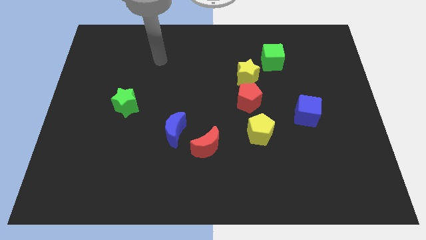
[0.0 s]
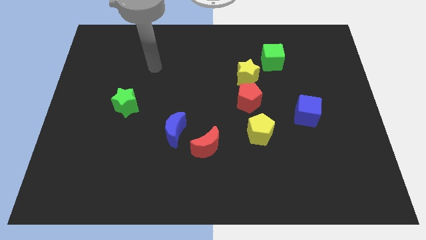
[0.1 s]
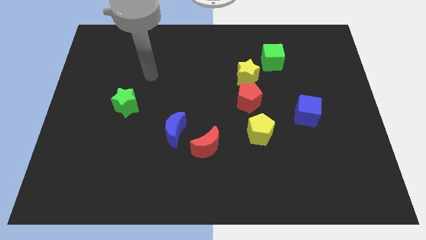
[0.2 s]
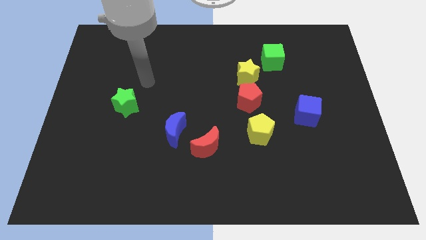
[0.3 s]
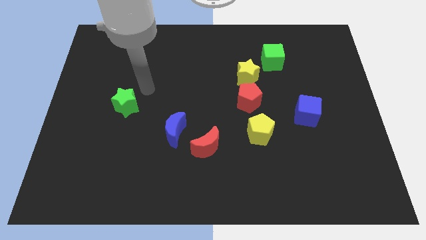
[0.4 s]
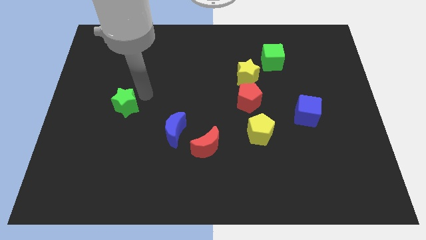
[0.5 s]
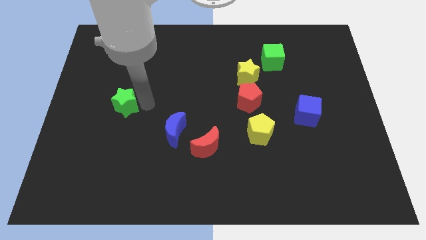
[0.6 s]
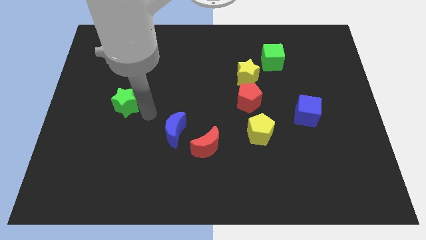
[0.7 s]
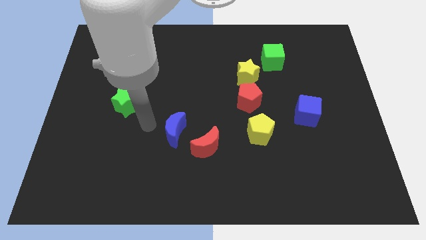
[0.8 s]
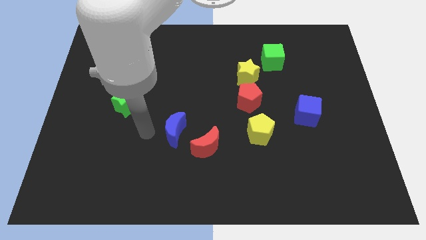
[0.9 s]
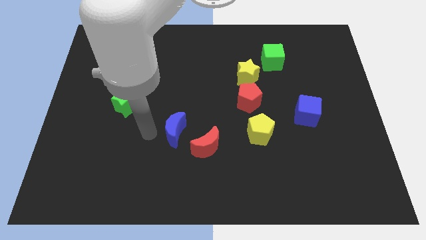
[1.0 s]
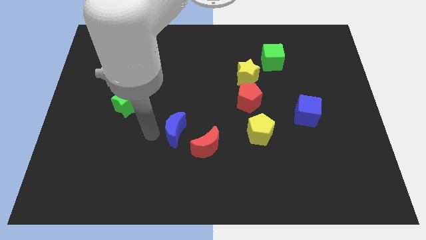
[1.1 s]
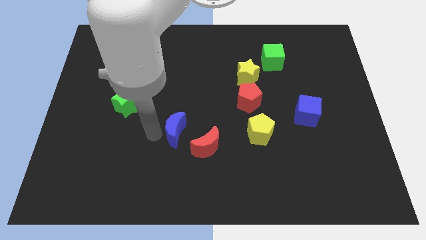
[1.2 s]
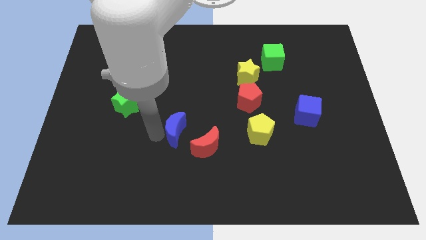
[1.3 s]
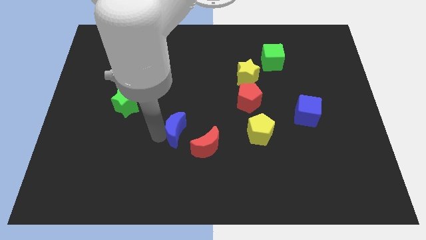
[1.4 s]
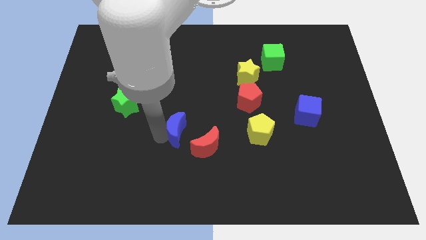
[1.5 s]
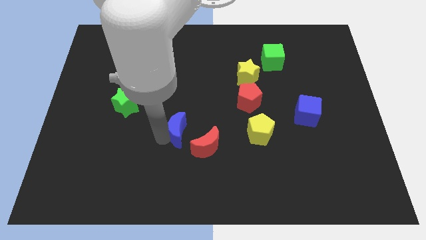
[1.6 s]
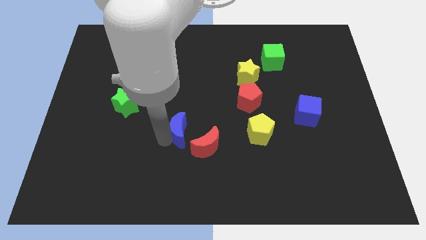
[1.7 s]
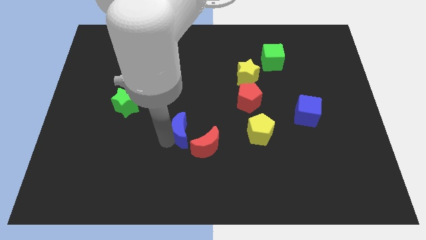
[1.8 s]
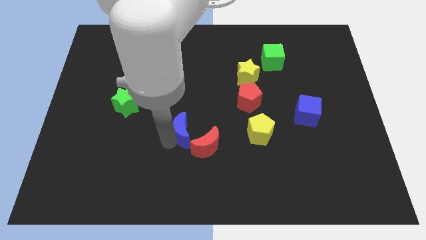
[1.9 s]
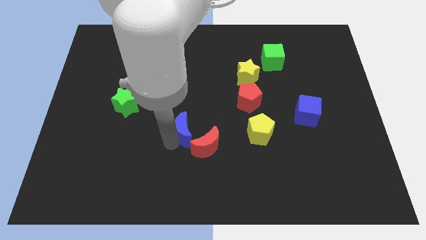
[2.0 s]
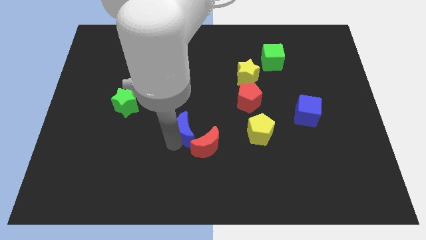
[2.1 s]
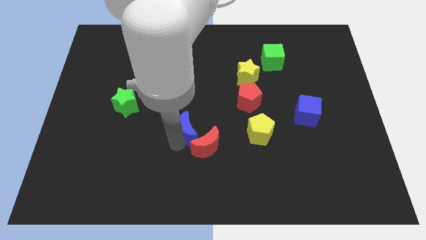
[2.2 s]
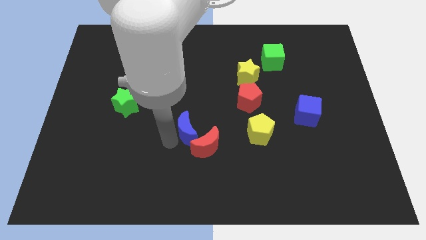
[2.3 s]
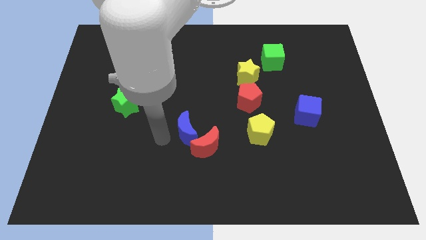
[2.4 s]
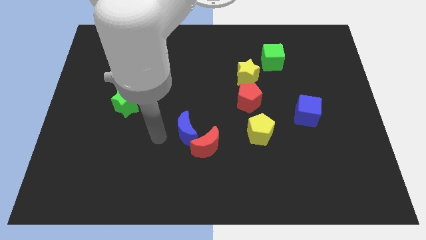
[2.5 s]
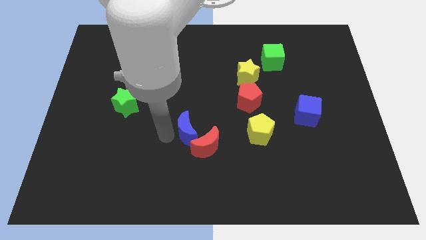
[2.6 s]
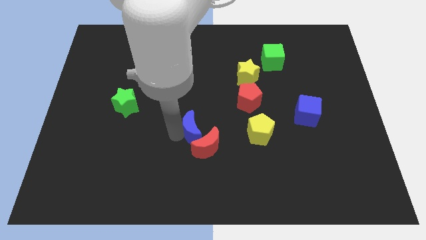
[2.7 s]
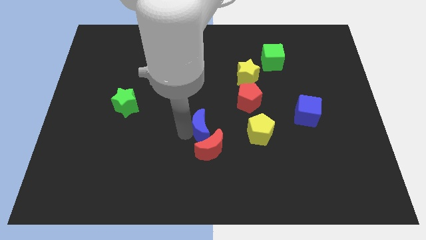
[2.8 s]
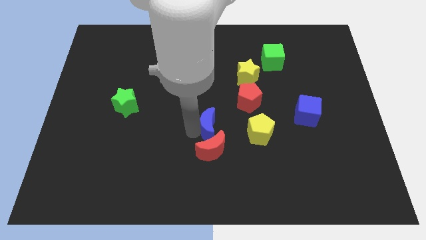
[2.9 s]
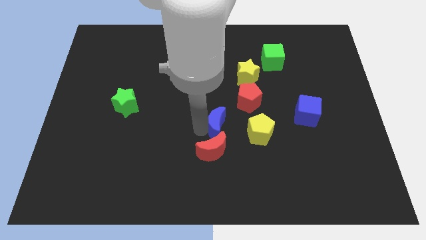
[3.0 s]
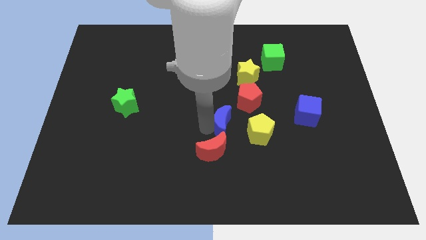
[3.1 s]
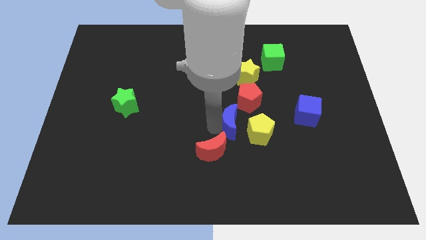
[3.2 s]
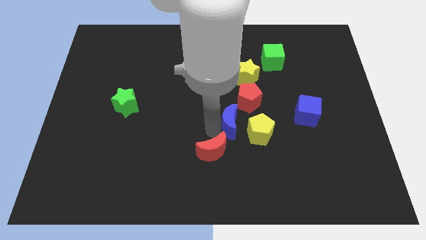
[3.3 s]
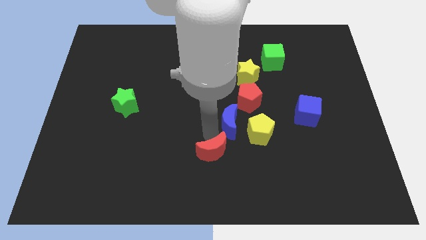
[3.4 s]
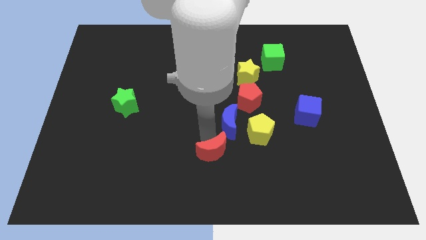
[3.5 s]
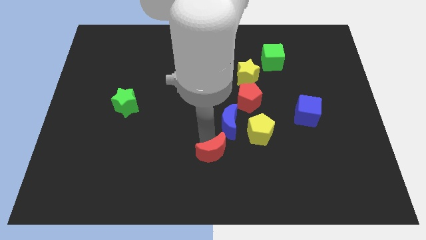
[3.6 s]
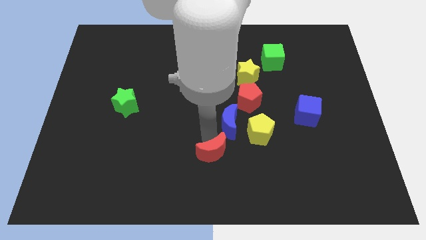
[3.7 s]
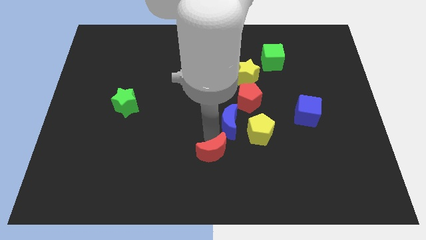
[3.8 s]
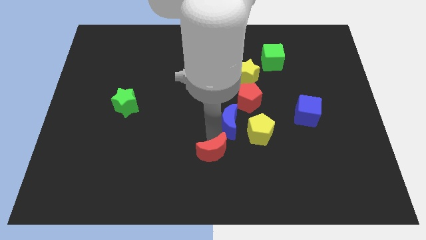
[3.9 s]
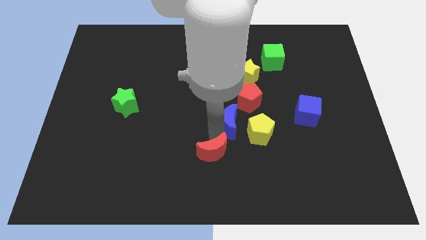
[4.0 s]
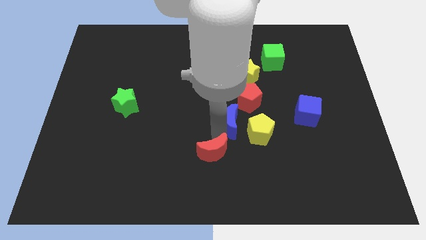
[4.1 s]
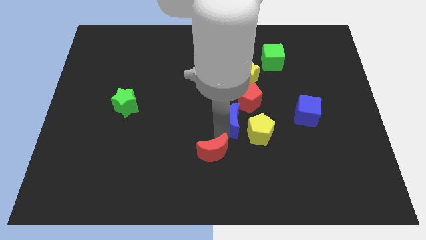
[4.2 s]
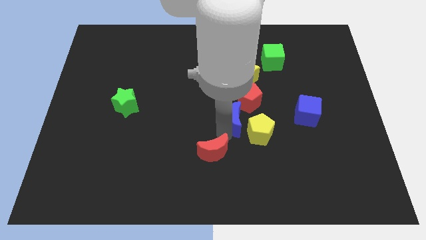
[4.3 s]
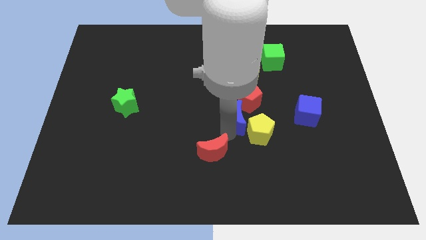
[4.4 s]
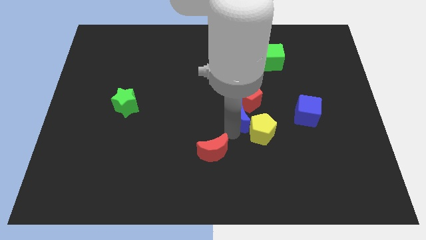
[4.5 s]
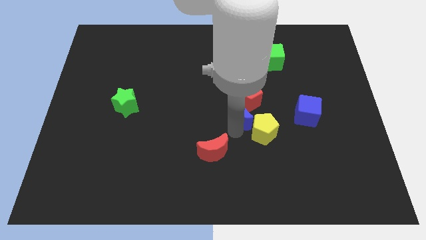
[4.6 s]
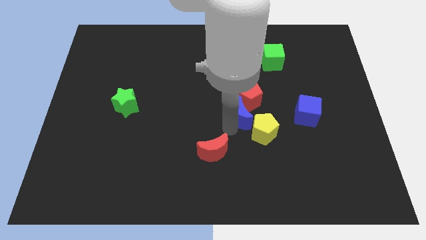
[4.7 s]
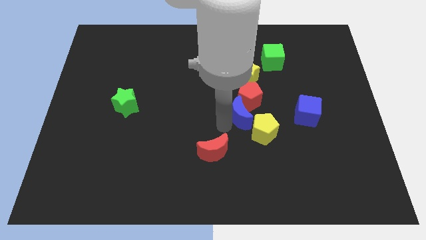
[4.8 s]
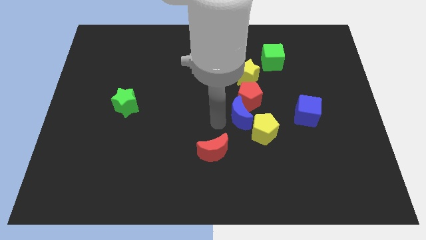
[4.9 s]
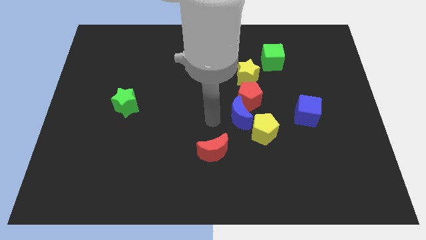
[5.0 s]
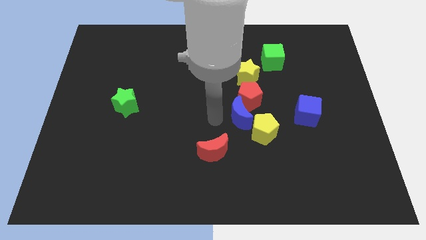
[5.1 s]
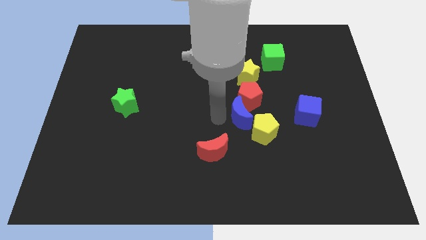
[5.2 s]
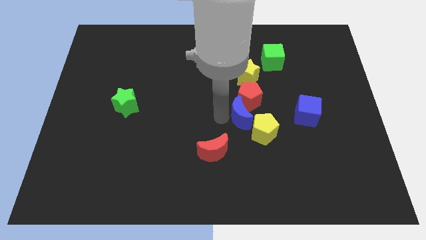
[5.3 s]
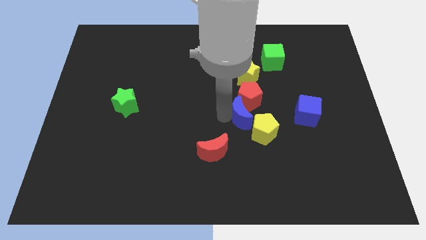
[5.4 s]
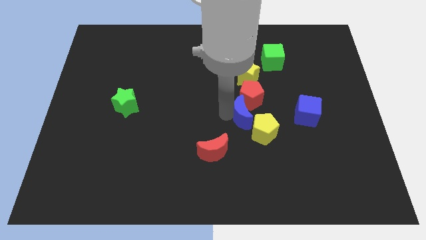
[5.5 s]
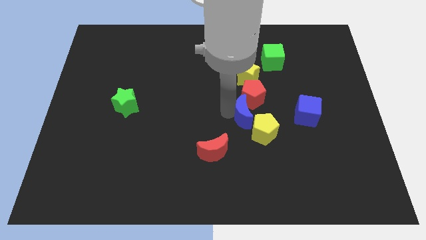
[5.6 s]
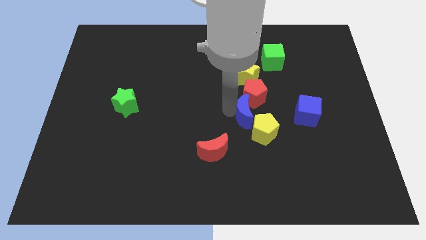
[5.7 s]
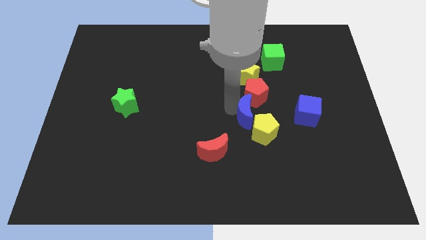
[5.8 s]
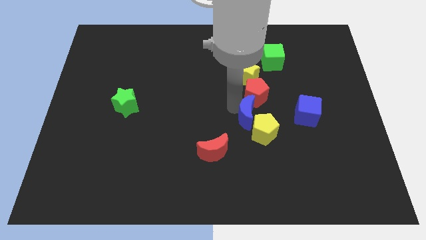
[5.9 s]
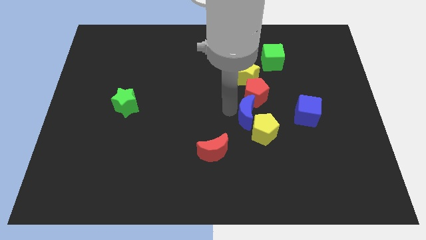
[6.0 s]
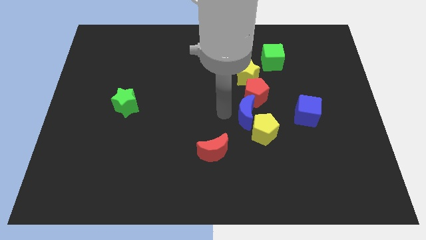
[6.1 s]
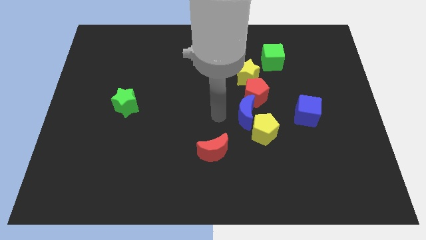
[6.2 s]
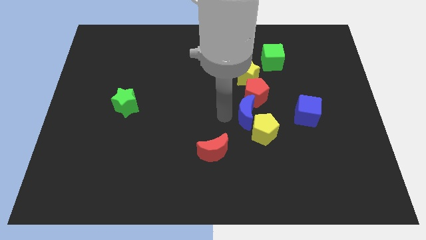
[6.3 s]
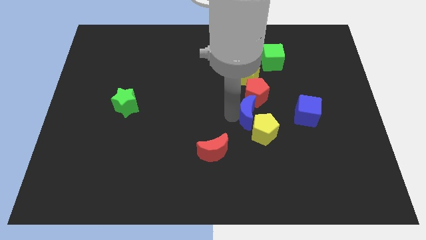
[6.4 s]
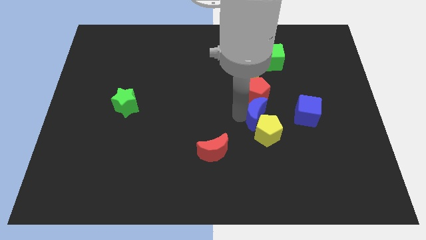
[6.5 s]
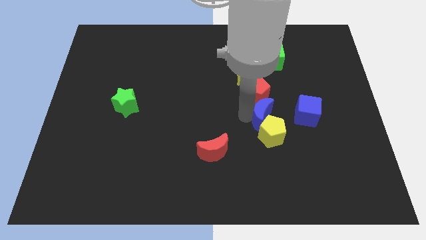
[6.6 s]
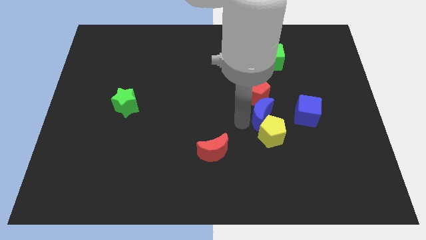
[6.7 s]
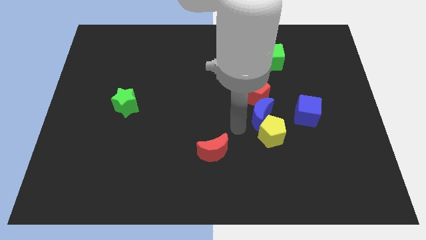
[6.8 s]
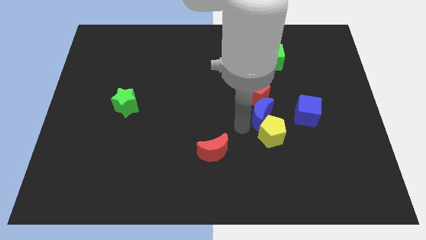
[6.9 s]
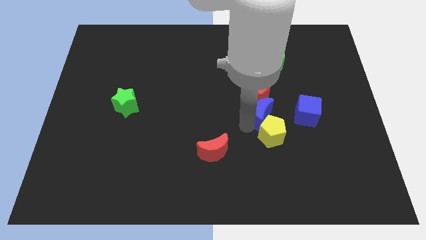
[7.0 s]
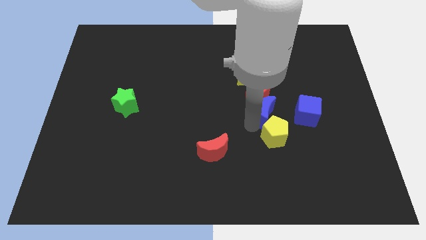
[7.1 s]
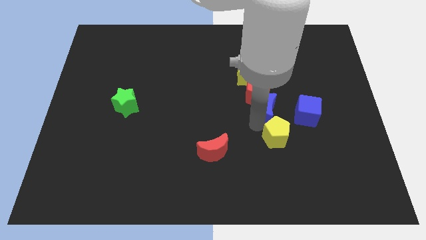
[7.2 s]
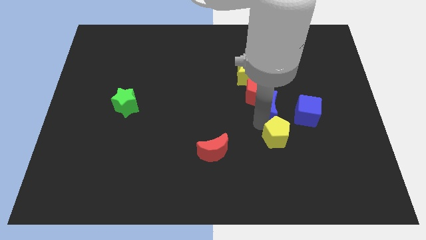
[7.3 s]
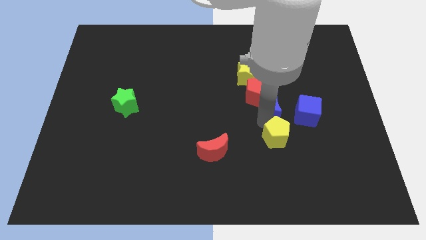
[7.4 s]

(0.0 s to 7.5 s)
put the blue moon to the right of the red pentagon

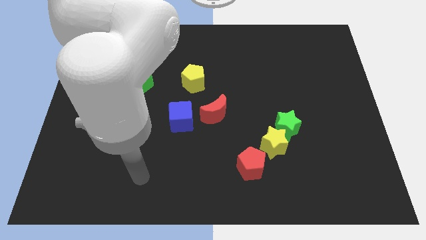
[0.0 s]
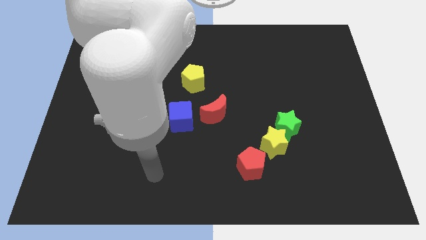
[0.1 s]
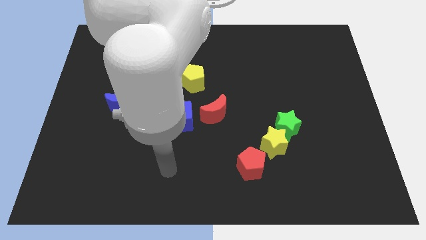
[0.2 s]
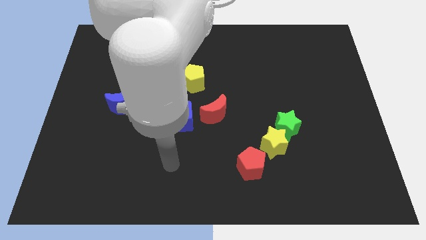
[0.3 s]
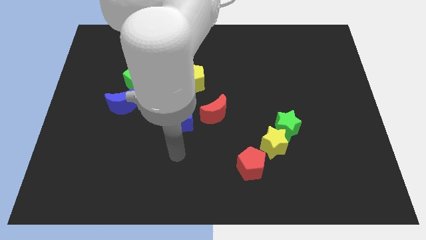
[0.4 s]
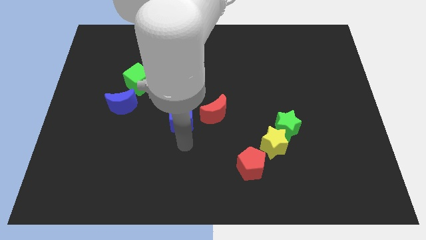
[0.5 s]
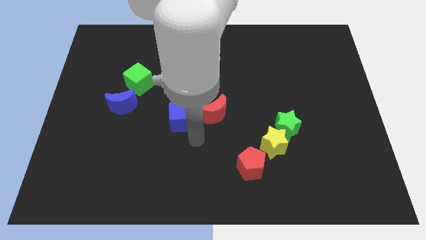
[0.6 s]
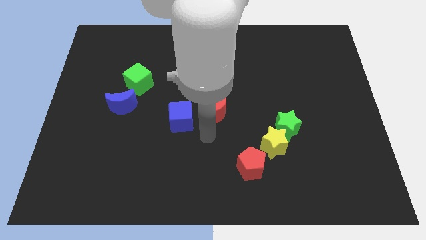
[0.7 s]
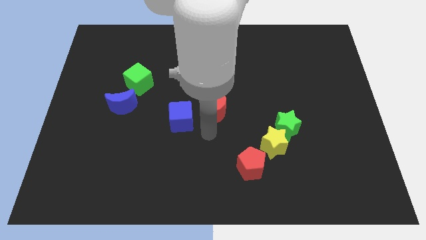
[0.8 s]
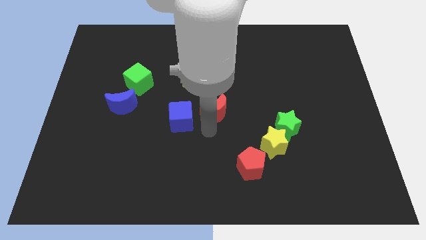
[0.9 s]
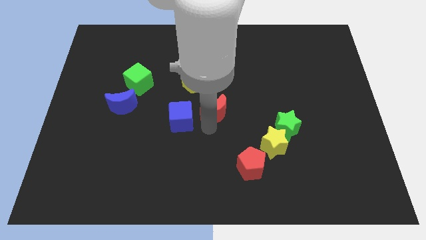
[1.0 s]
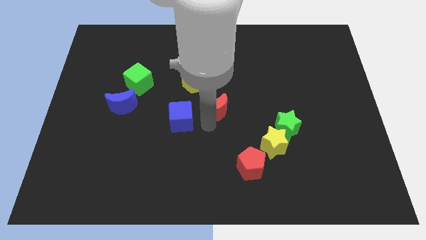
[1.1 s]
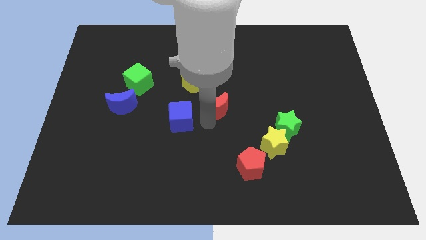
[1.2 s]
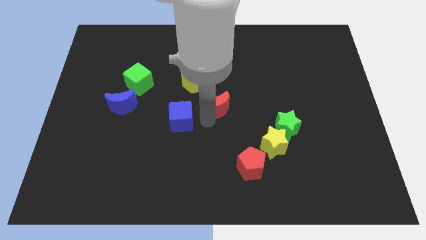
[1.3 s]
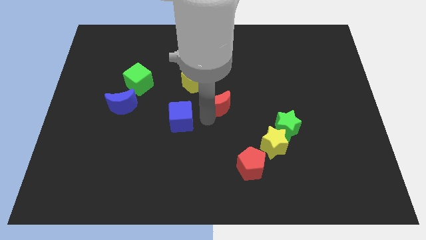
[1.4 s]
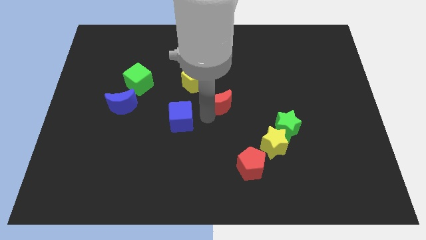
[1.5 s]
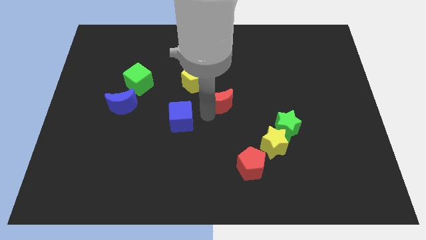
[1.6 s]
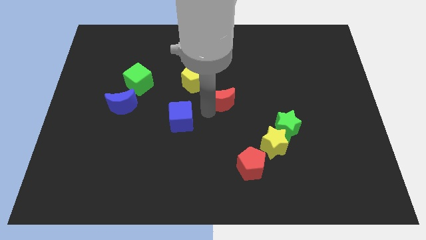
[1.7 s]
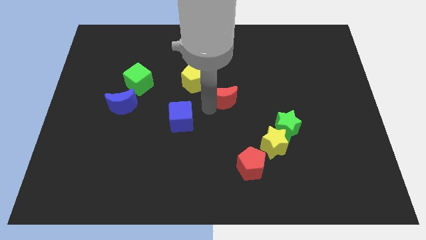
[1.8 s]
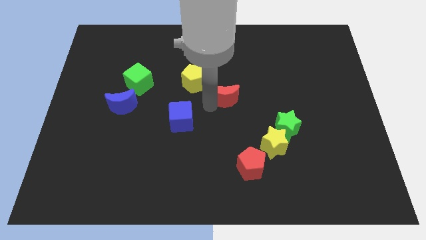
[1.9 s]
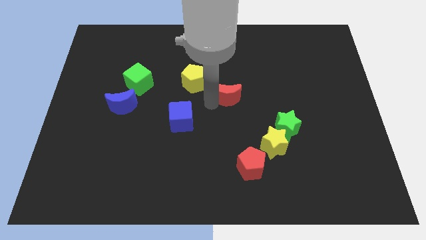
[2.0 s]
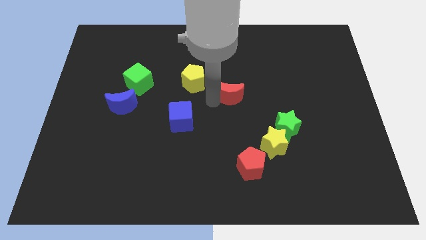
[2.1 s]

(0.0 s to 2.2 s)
move the red moon just right of the yellow pentagon
